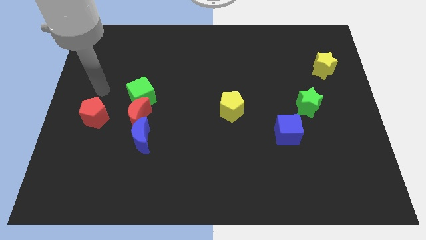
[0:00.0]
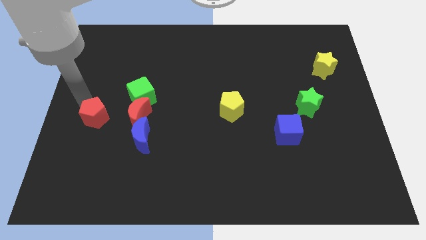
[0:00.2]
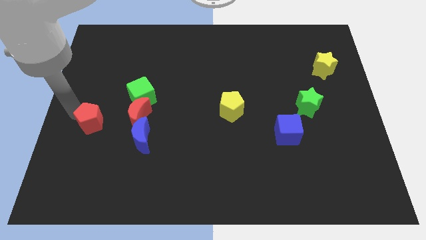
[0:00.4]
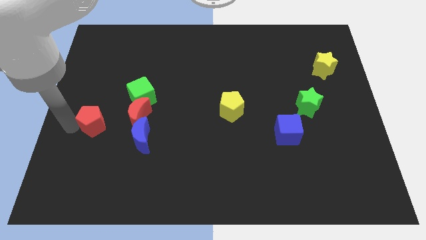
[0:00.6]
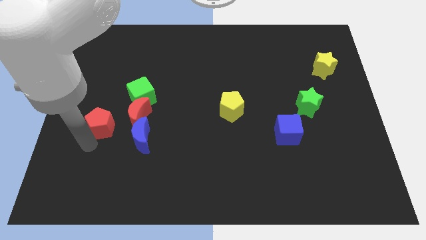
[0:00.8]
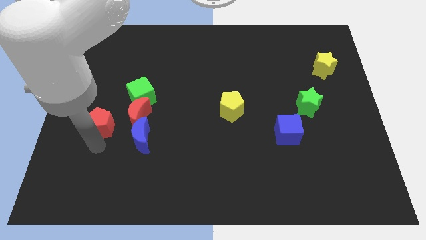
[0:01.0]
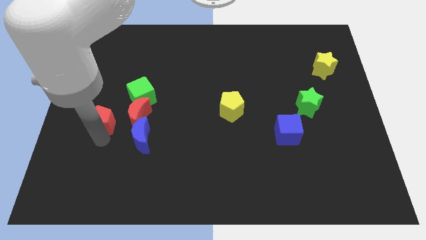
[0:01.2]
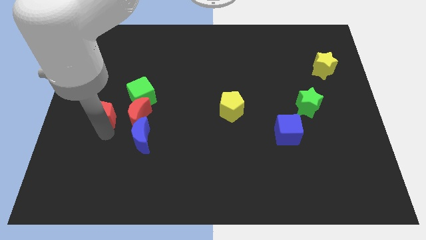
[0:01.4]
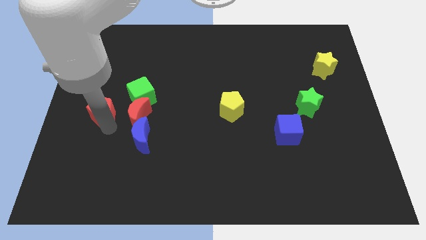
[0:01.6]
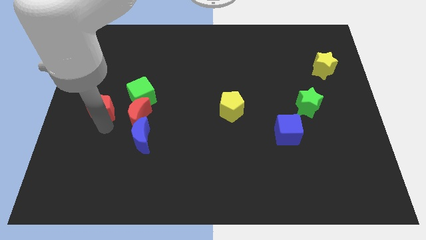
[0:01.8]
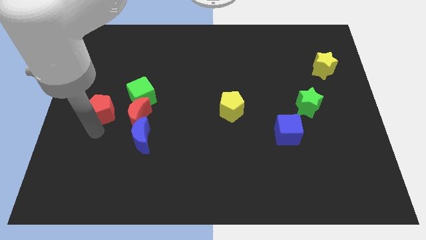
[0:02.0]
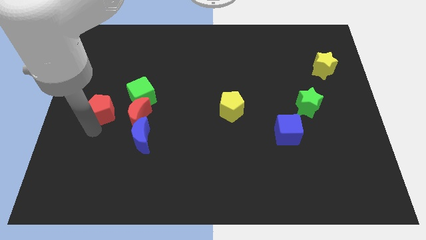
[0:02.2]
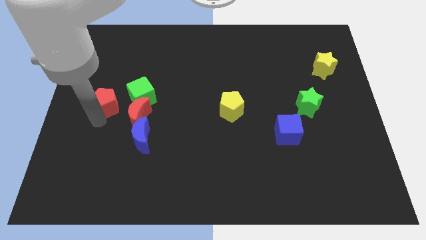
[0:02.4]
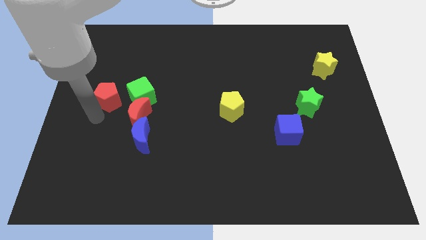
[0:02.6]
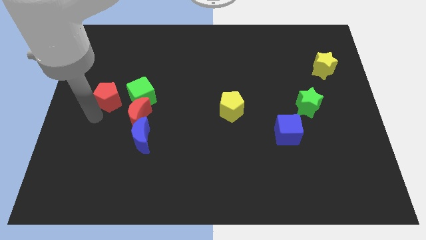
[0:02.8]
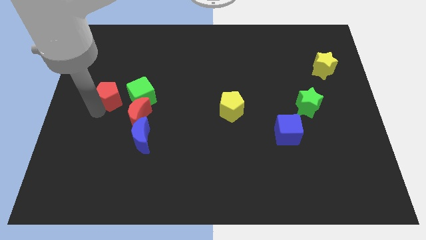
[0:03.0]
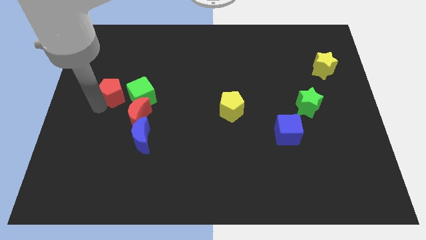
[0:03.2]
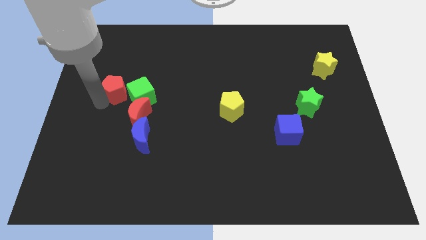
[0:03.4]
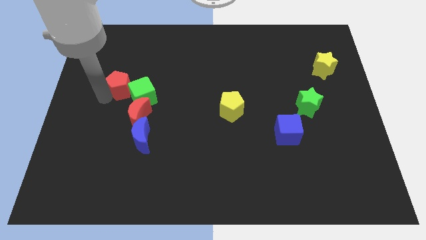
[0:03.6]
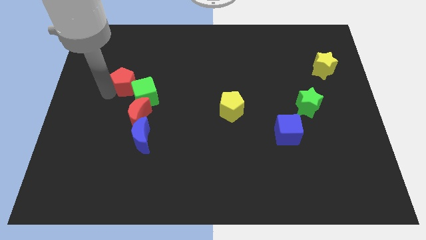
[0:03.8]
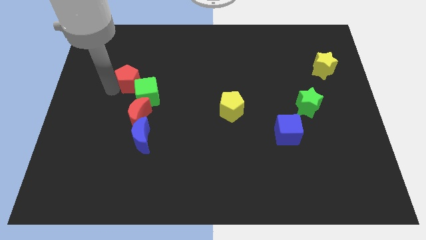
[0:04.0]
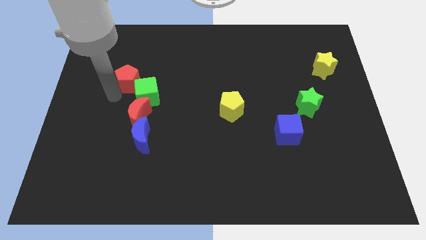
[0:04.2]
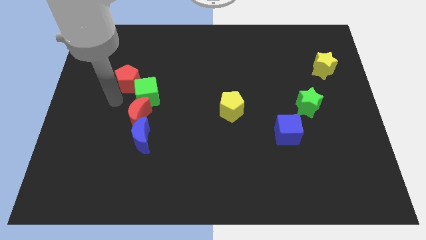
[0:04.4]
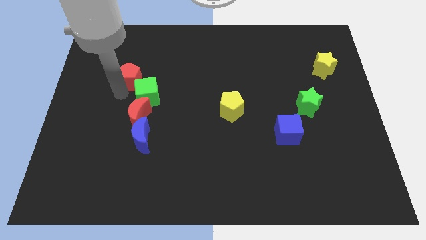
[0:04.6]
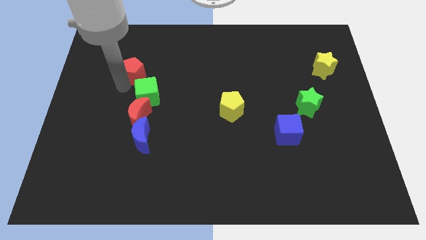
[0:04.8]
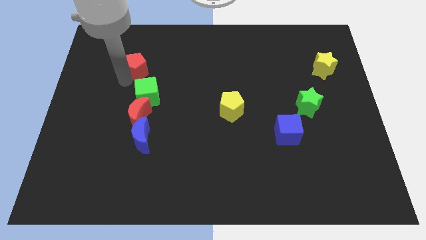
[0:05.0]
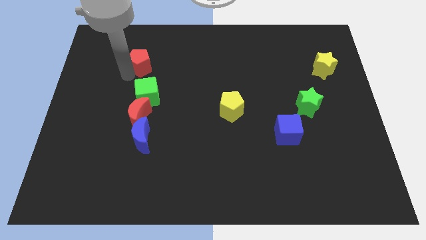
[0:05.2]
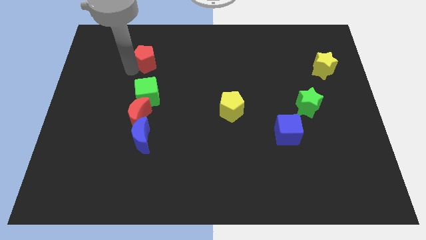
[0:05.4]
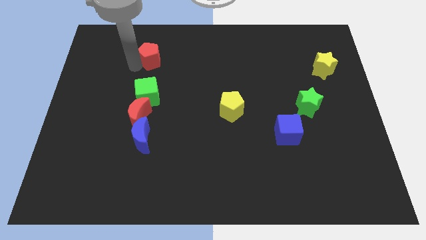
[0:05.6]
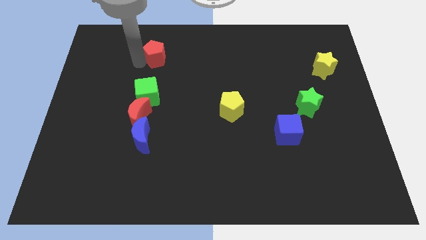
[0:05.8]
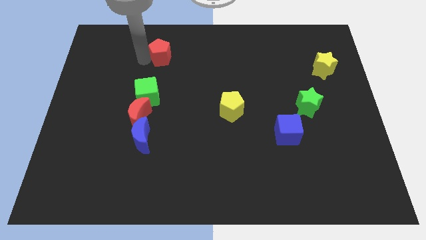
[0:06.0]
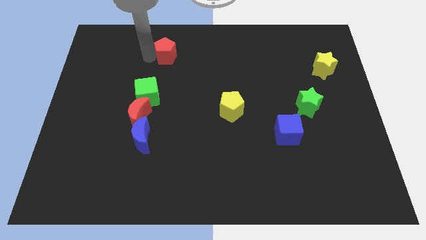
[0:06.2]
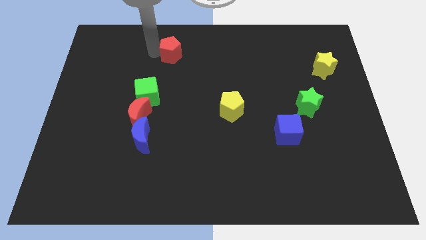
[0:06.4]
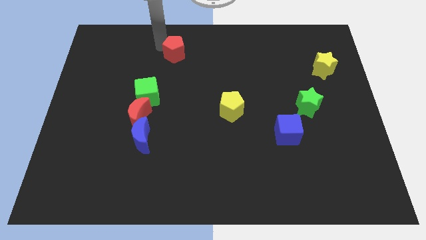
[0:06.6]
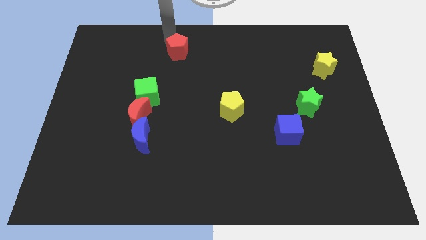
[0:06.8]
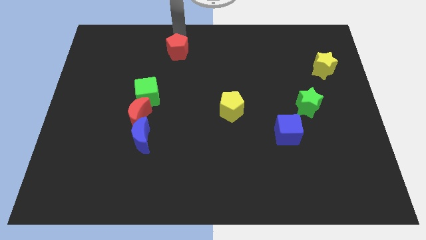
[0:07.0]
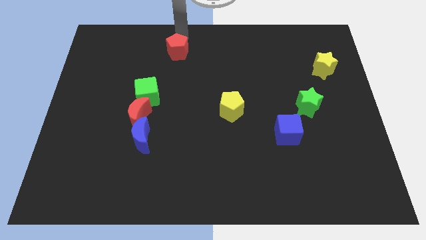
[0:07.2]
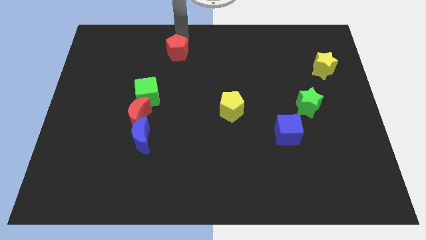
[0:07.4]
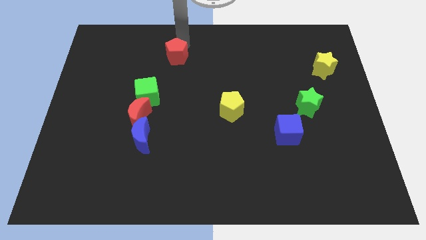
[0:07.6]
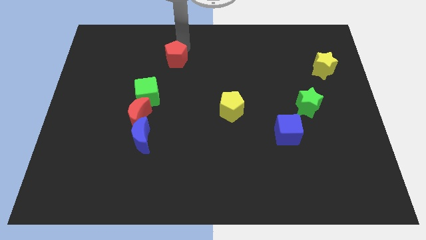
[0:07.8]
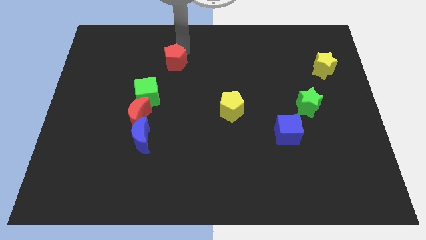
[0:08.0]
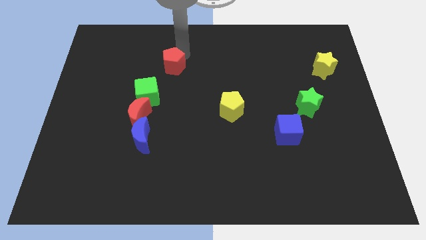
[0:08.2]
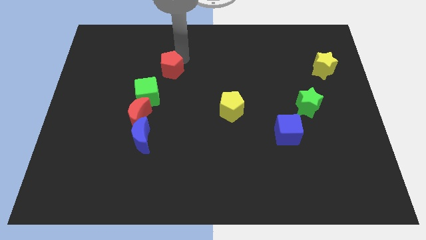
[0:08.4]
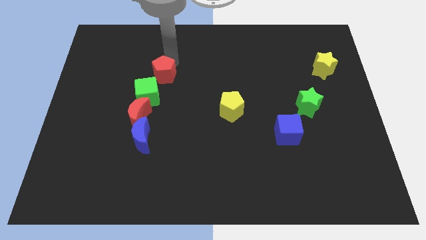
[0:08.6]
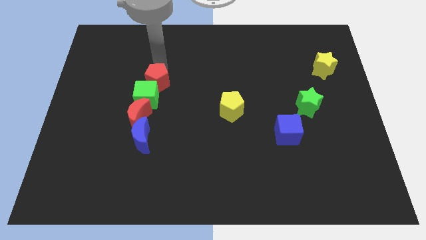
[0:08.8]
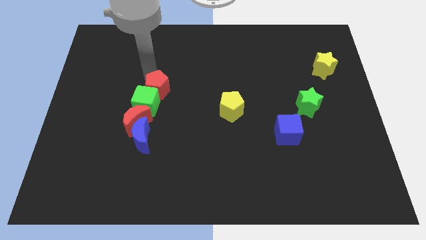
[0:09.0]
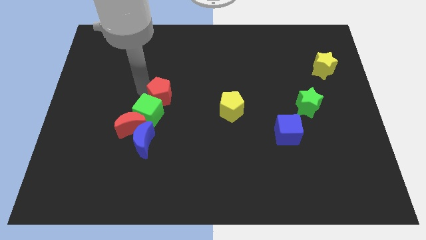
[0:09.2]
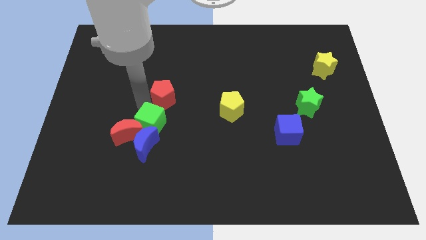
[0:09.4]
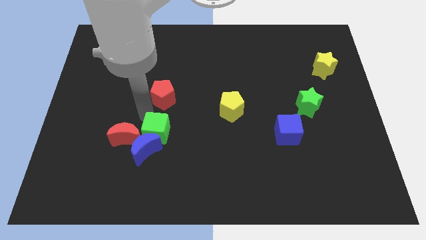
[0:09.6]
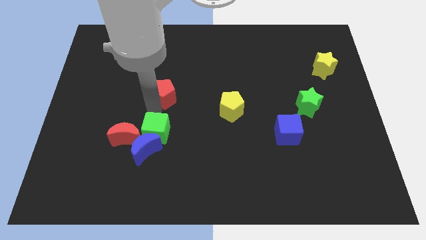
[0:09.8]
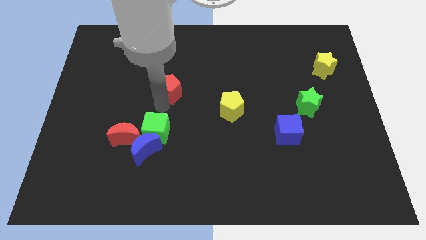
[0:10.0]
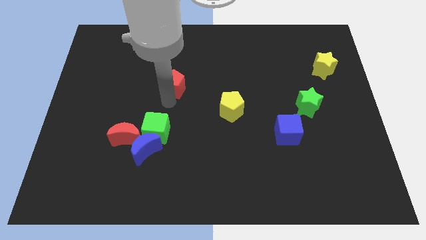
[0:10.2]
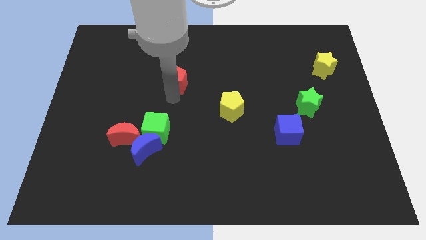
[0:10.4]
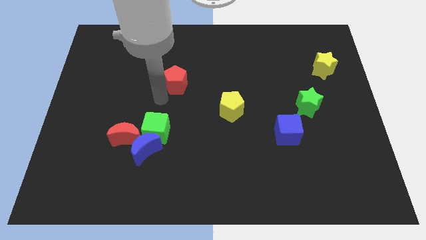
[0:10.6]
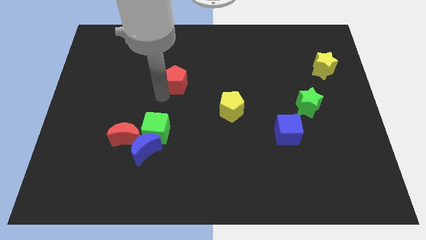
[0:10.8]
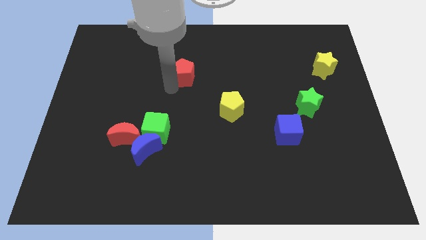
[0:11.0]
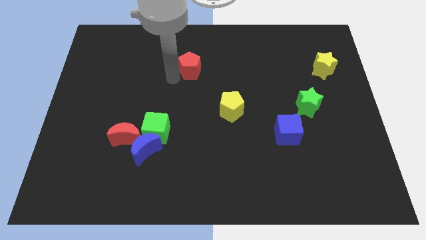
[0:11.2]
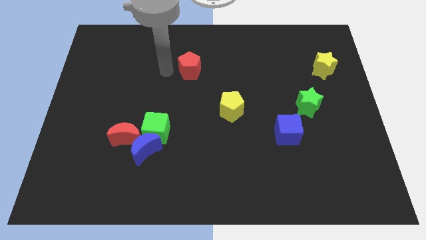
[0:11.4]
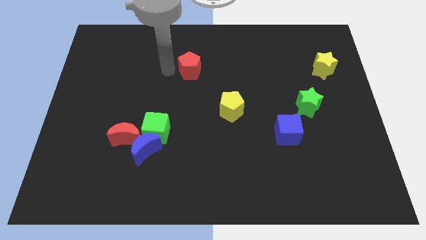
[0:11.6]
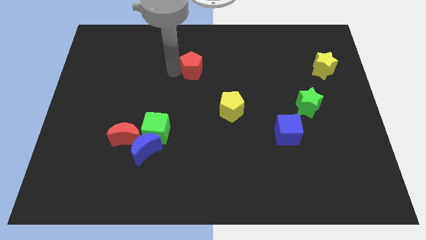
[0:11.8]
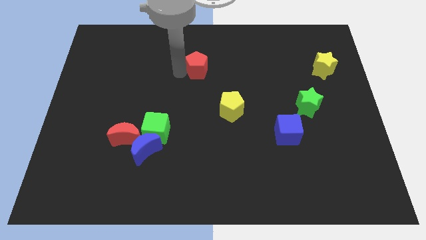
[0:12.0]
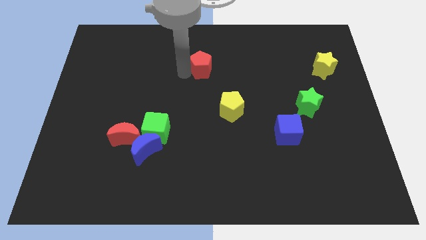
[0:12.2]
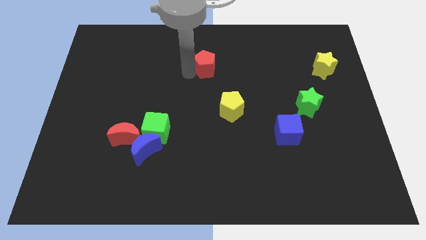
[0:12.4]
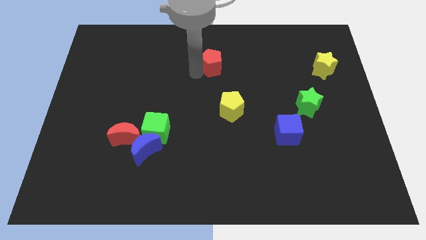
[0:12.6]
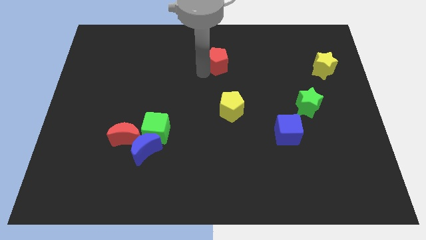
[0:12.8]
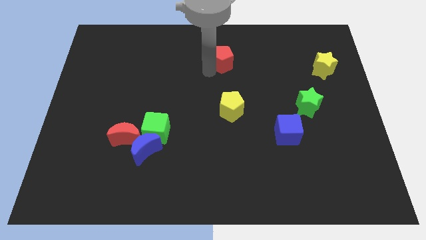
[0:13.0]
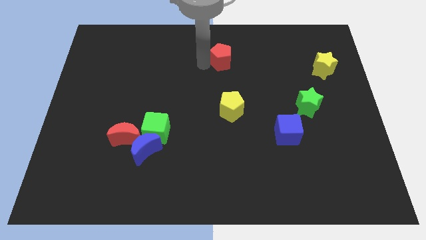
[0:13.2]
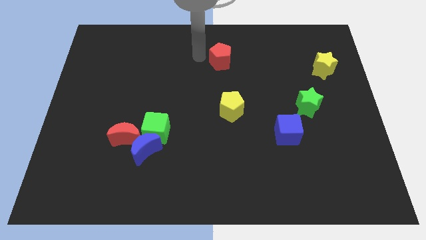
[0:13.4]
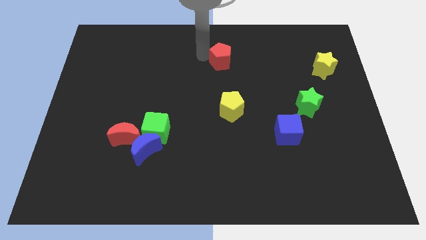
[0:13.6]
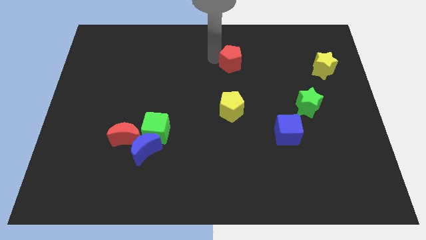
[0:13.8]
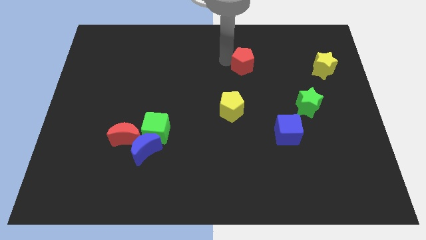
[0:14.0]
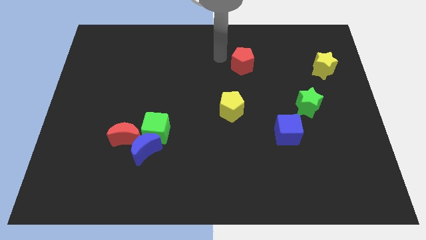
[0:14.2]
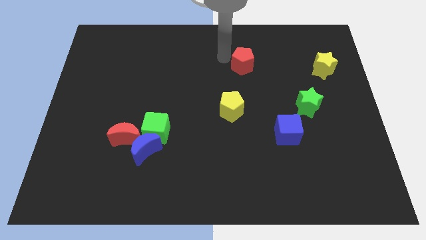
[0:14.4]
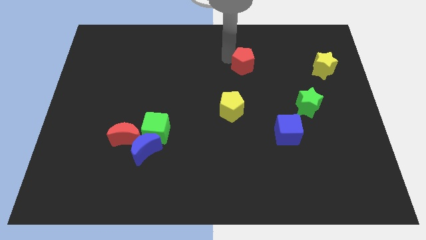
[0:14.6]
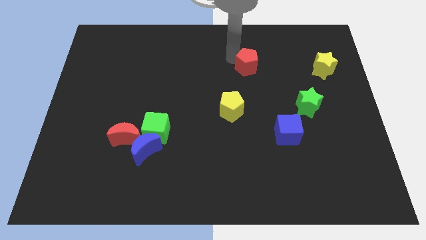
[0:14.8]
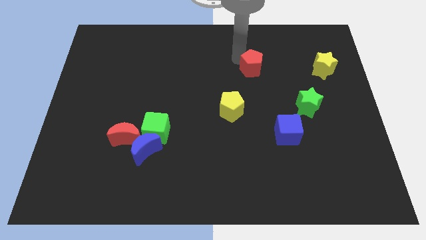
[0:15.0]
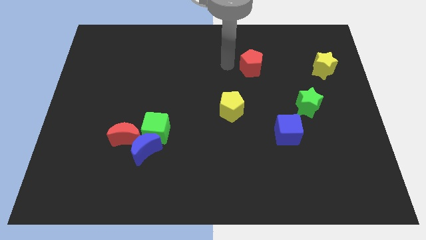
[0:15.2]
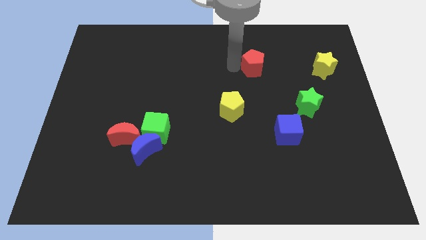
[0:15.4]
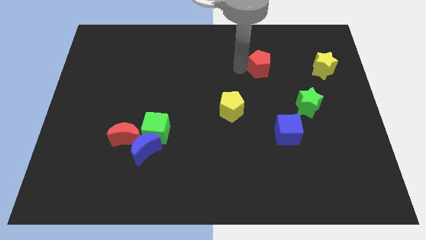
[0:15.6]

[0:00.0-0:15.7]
move the red pentagon just left of the yellow star
